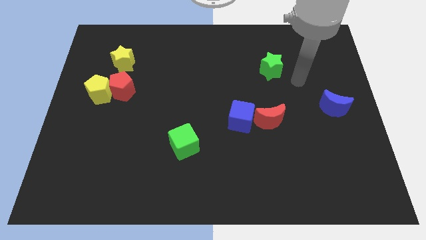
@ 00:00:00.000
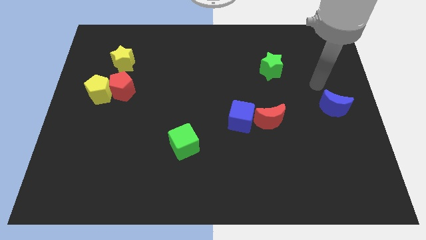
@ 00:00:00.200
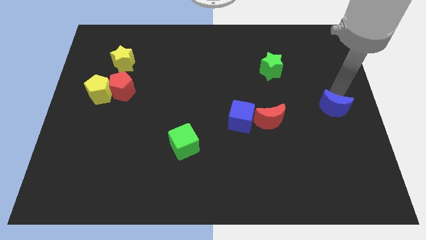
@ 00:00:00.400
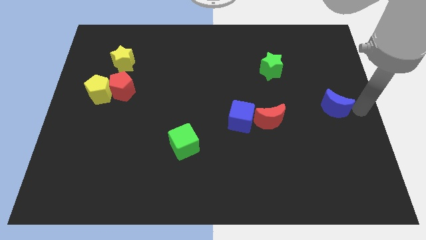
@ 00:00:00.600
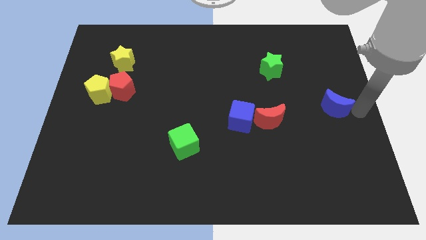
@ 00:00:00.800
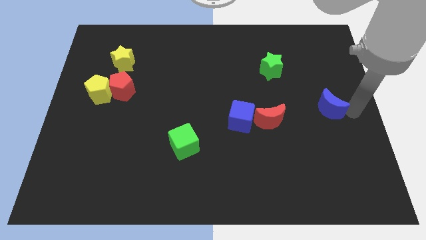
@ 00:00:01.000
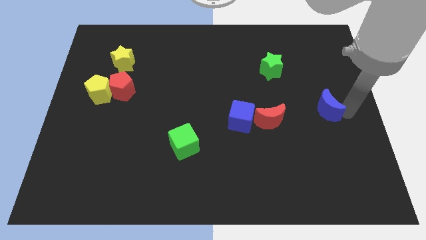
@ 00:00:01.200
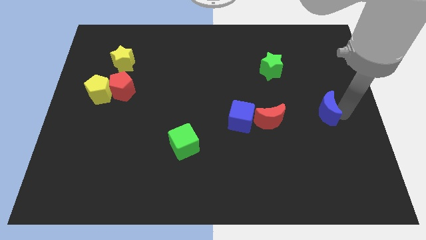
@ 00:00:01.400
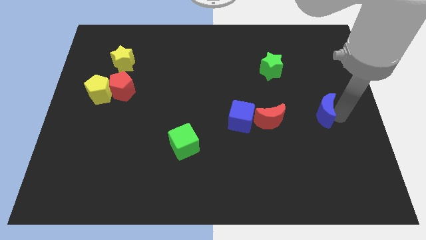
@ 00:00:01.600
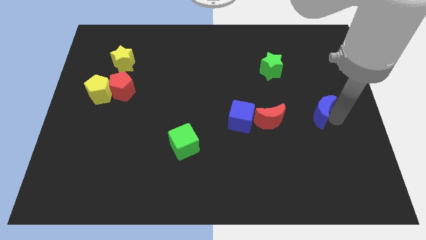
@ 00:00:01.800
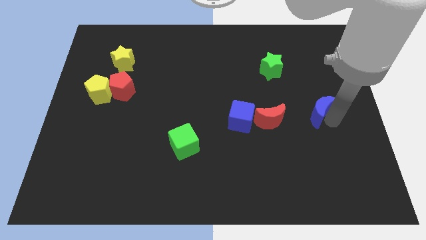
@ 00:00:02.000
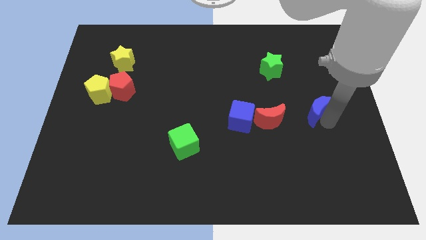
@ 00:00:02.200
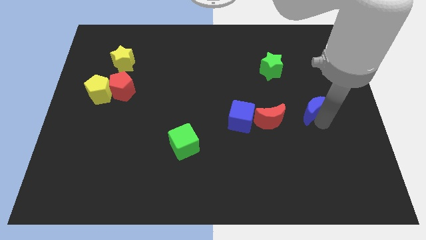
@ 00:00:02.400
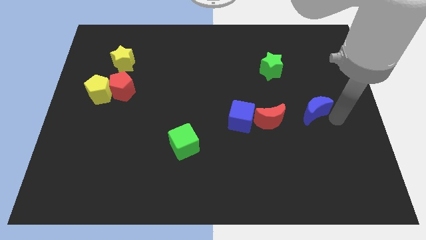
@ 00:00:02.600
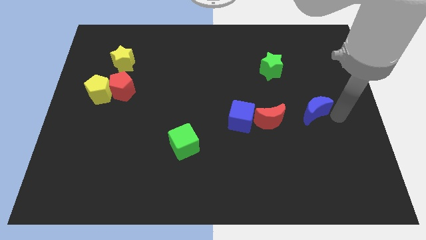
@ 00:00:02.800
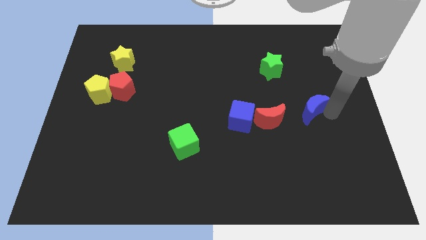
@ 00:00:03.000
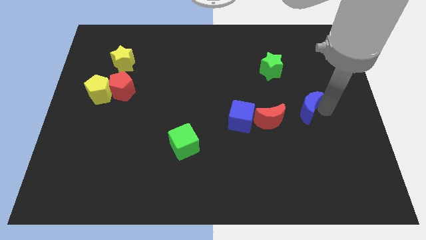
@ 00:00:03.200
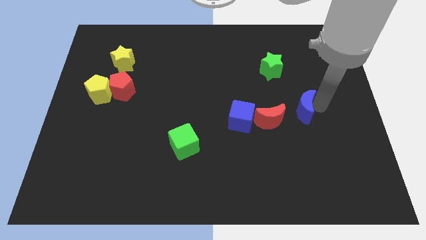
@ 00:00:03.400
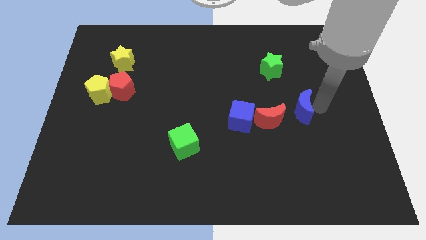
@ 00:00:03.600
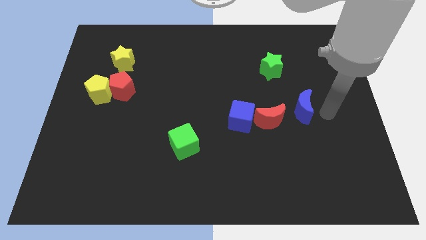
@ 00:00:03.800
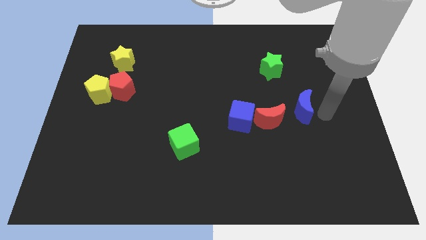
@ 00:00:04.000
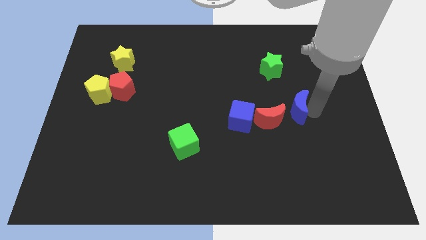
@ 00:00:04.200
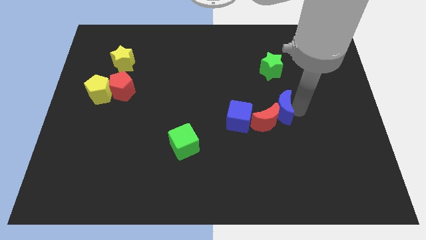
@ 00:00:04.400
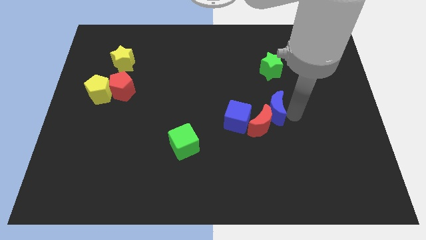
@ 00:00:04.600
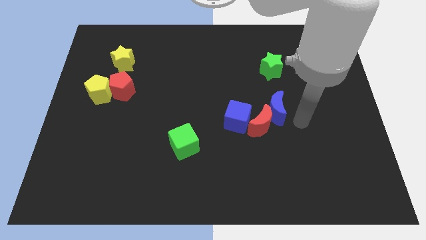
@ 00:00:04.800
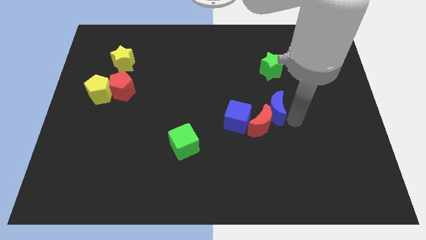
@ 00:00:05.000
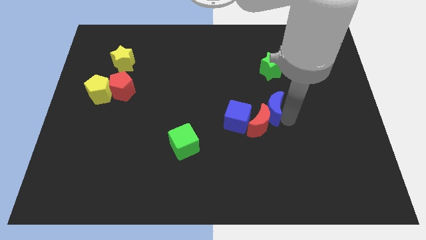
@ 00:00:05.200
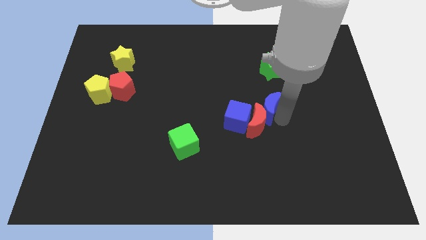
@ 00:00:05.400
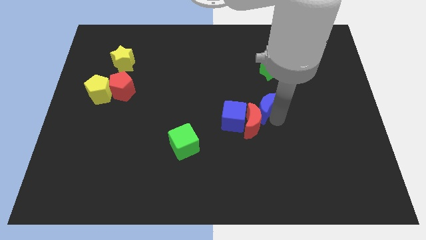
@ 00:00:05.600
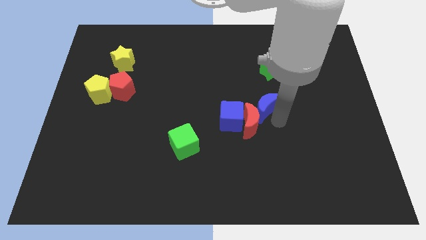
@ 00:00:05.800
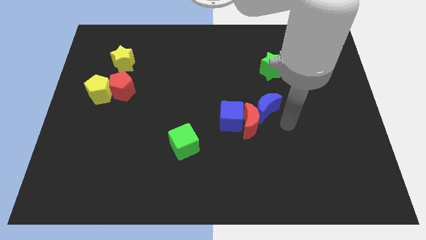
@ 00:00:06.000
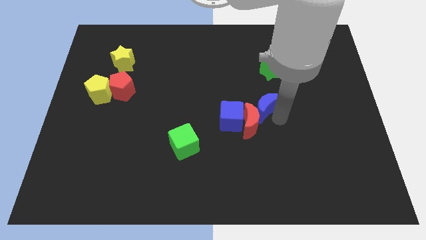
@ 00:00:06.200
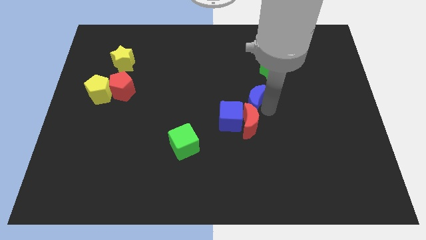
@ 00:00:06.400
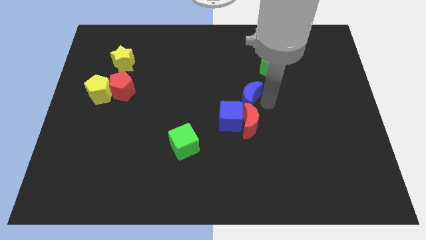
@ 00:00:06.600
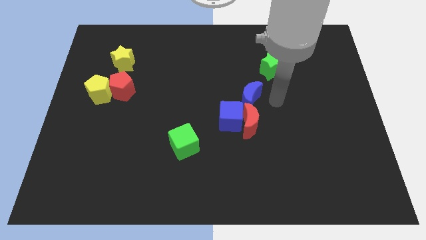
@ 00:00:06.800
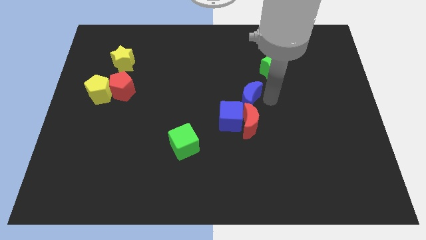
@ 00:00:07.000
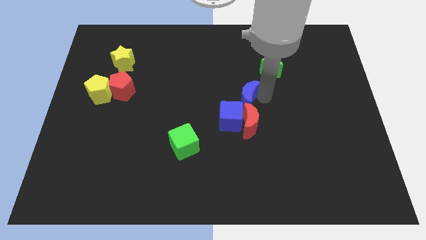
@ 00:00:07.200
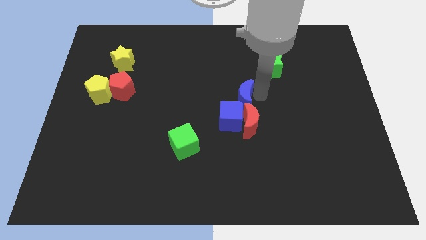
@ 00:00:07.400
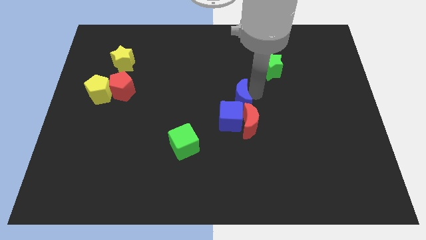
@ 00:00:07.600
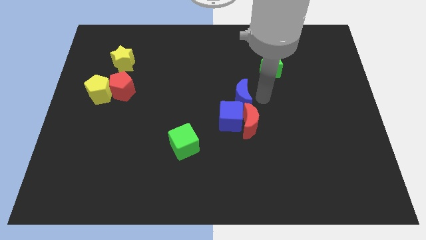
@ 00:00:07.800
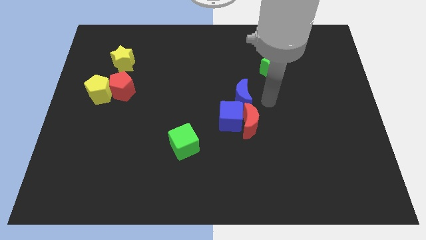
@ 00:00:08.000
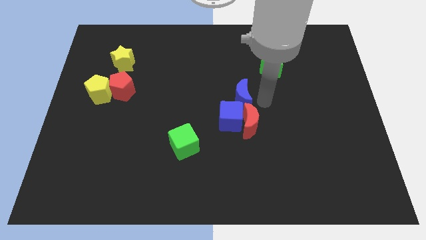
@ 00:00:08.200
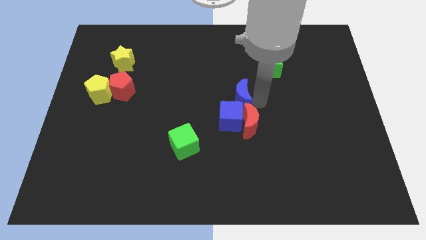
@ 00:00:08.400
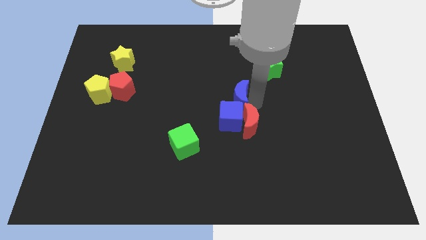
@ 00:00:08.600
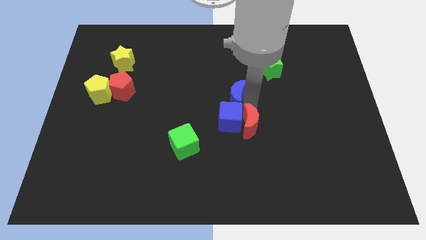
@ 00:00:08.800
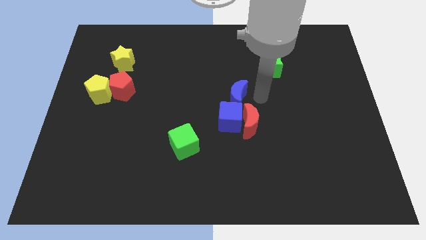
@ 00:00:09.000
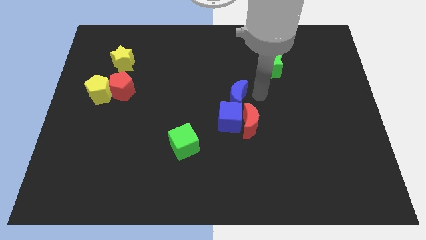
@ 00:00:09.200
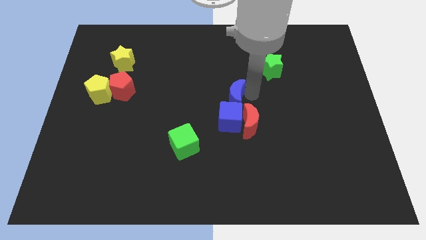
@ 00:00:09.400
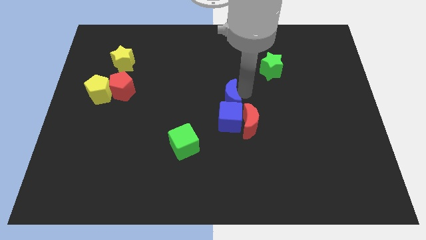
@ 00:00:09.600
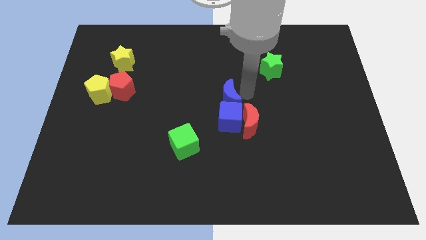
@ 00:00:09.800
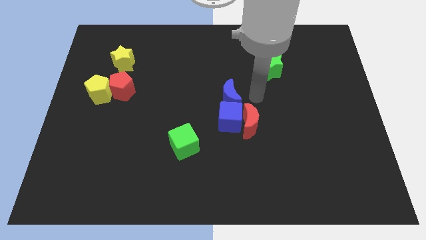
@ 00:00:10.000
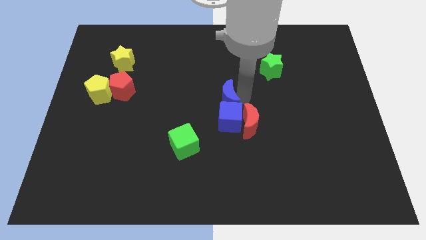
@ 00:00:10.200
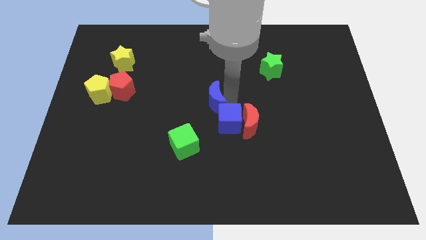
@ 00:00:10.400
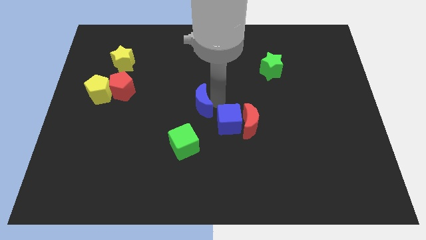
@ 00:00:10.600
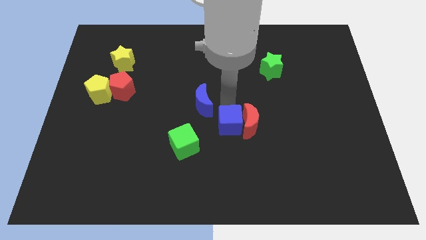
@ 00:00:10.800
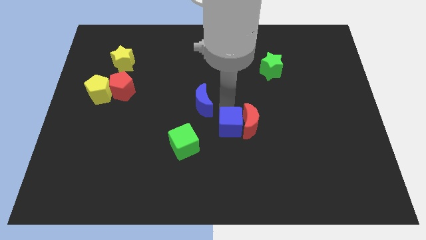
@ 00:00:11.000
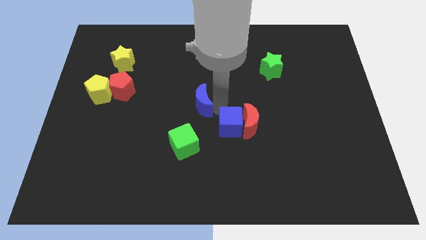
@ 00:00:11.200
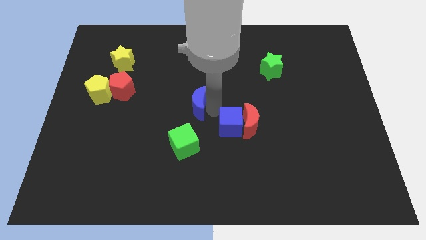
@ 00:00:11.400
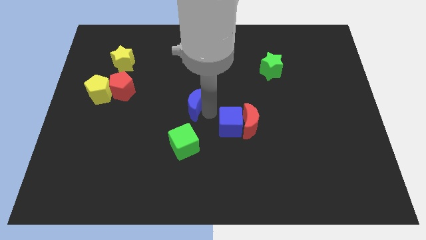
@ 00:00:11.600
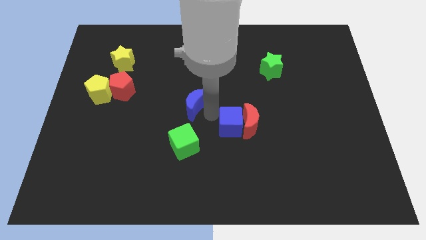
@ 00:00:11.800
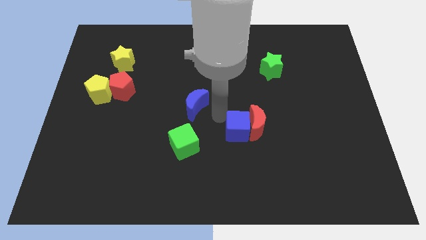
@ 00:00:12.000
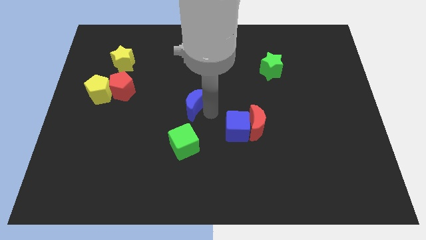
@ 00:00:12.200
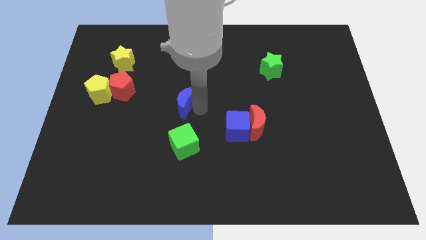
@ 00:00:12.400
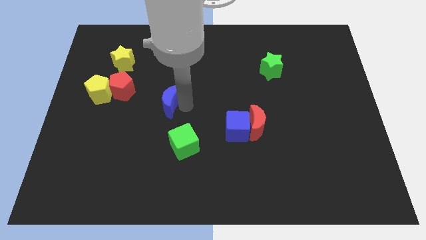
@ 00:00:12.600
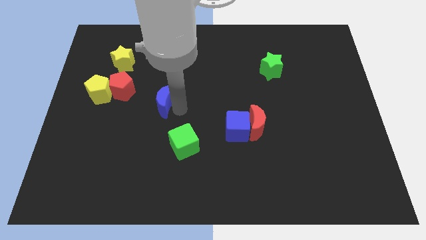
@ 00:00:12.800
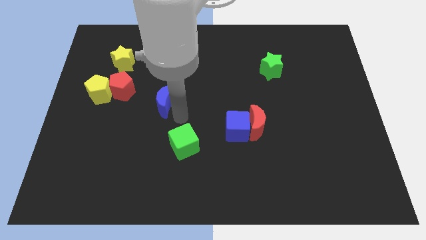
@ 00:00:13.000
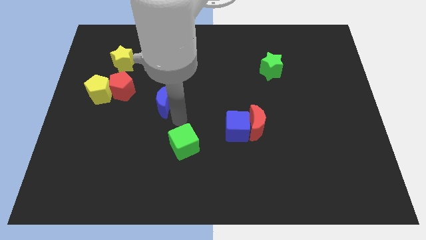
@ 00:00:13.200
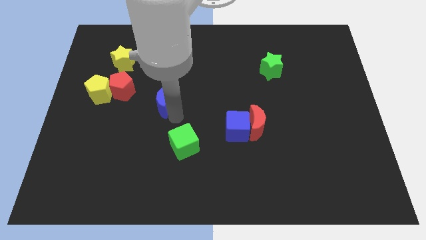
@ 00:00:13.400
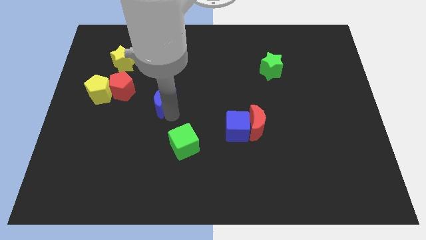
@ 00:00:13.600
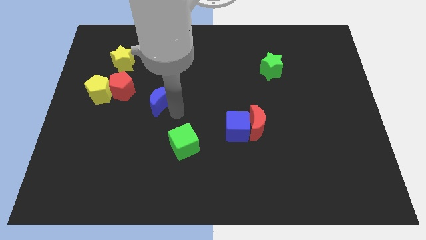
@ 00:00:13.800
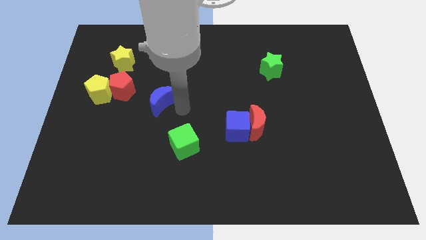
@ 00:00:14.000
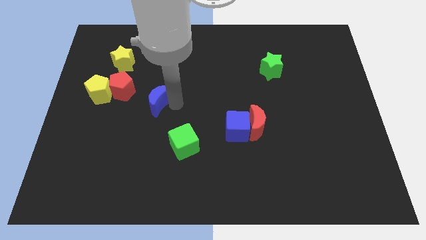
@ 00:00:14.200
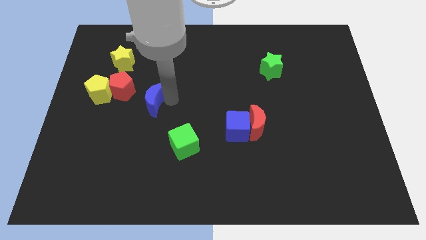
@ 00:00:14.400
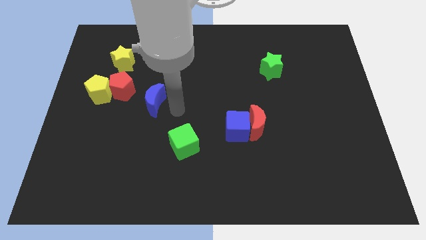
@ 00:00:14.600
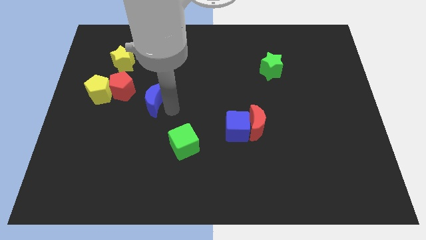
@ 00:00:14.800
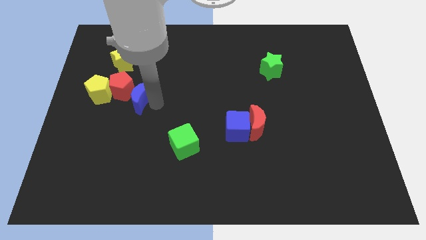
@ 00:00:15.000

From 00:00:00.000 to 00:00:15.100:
slide the blue moon close to the red pentagon
